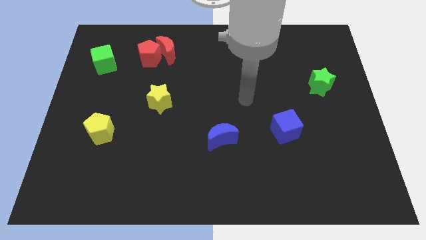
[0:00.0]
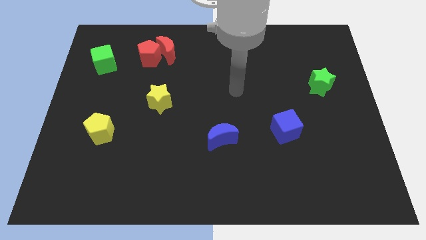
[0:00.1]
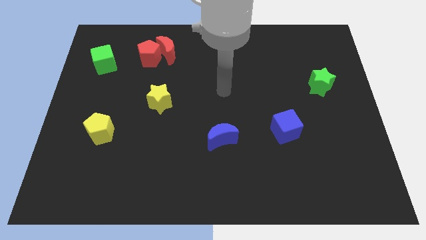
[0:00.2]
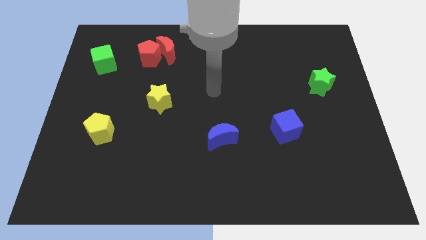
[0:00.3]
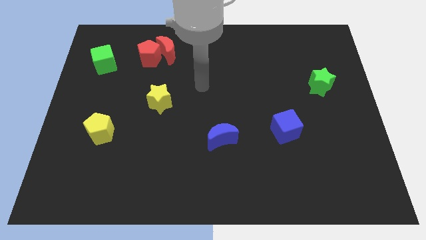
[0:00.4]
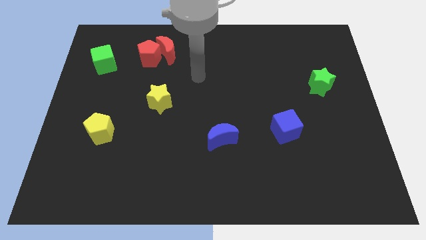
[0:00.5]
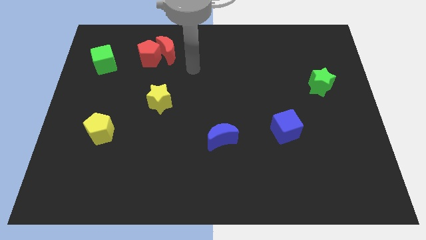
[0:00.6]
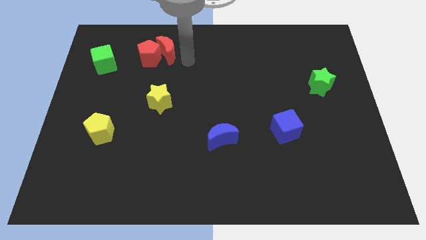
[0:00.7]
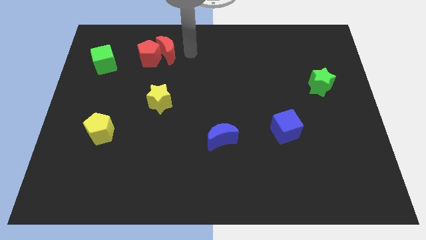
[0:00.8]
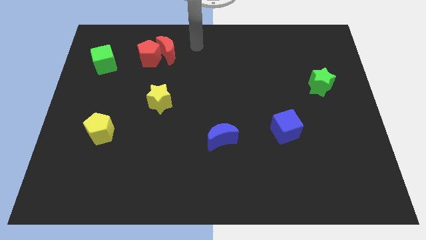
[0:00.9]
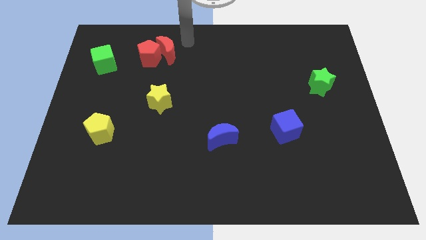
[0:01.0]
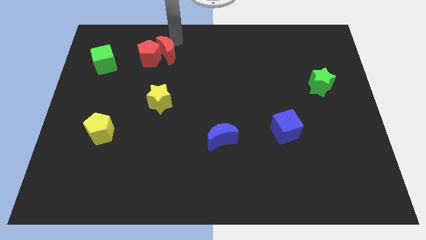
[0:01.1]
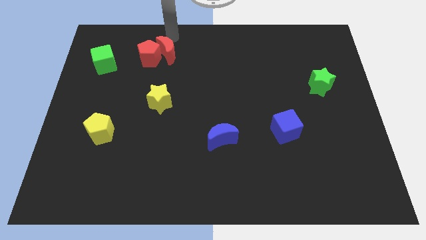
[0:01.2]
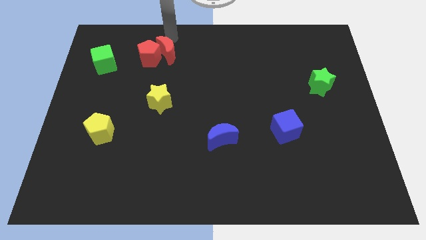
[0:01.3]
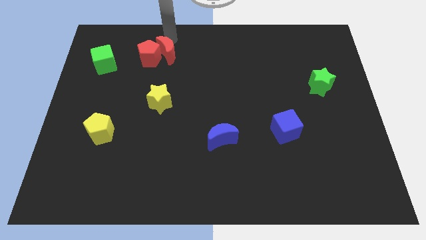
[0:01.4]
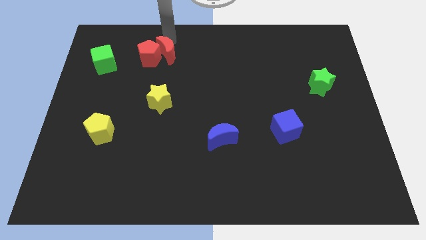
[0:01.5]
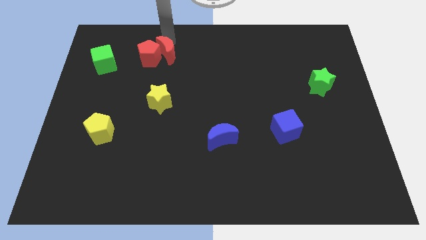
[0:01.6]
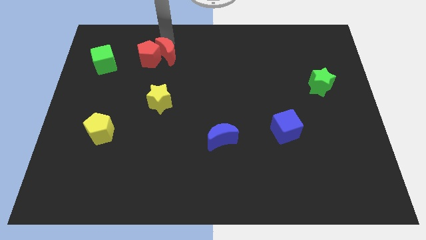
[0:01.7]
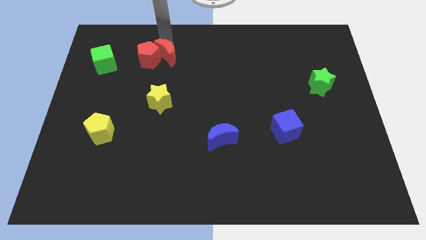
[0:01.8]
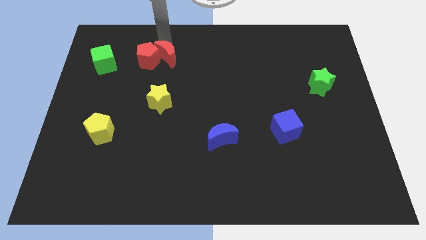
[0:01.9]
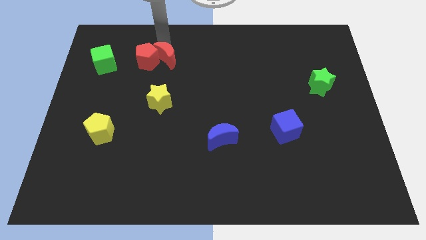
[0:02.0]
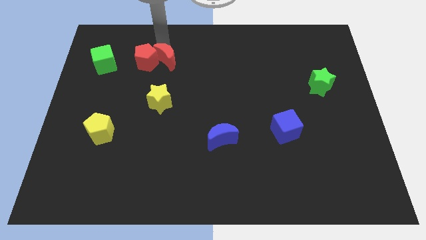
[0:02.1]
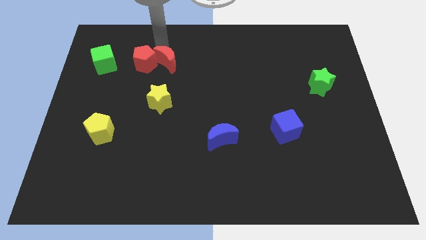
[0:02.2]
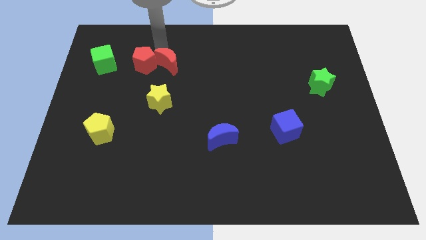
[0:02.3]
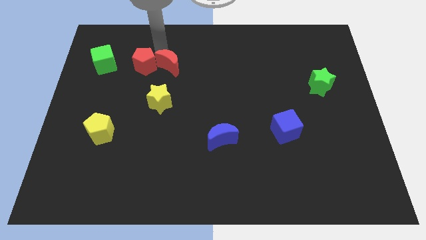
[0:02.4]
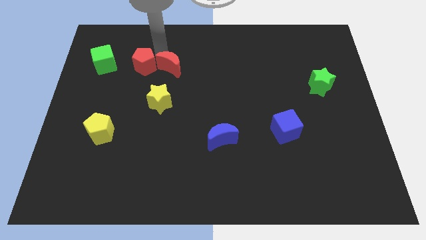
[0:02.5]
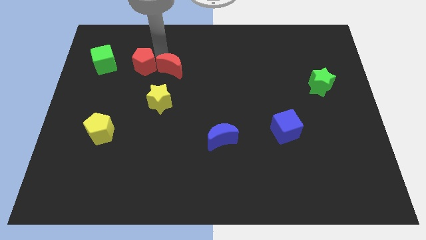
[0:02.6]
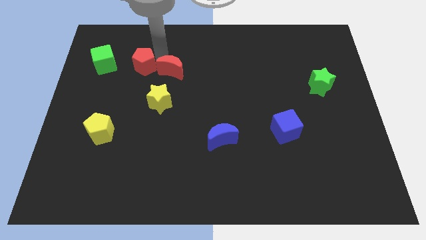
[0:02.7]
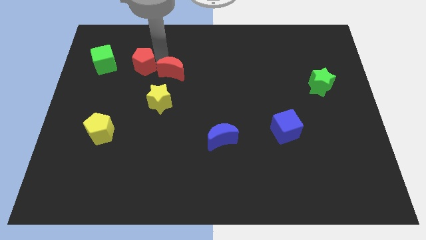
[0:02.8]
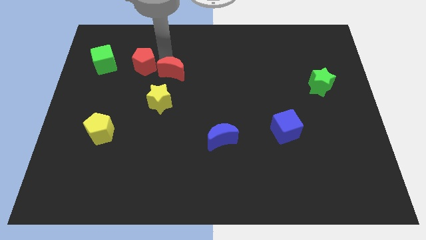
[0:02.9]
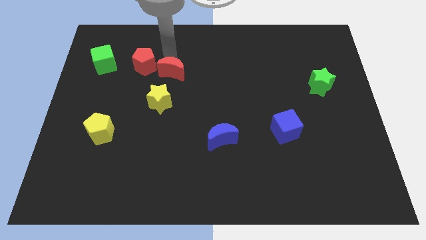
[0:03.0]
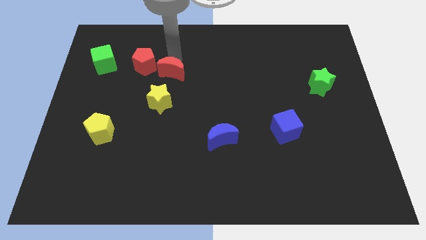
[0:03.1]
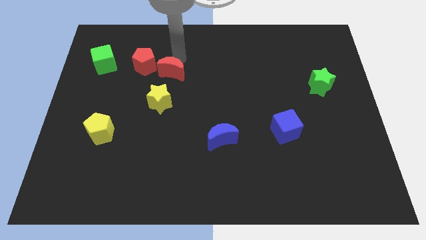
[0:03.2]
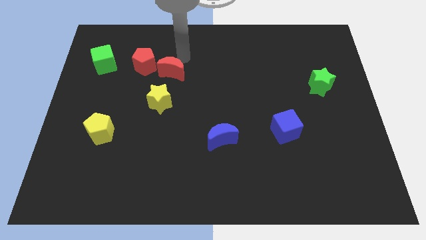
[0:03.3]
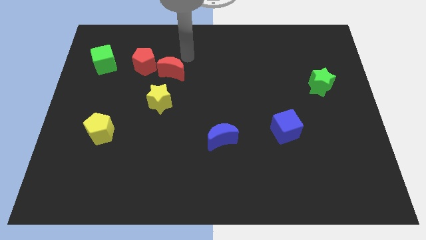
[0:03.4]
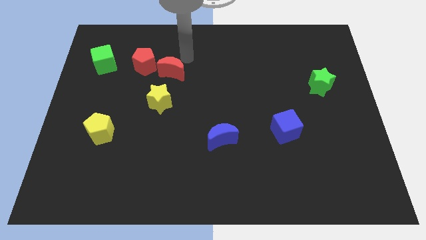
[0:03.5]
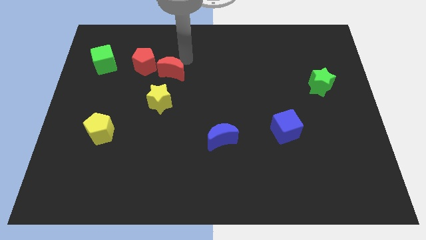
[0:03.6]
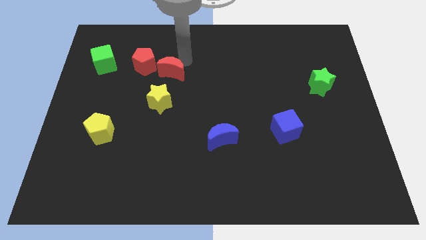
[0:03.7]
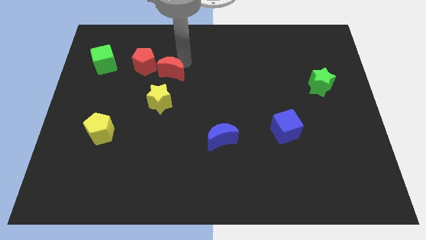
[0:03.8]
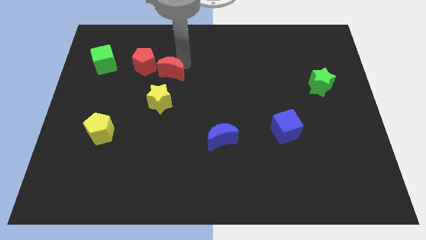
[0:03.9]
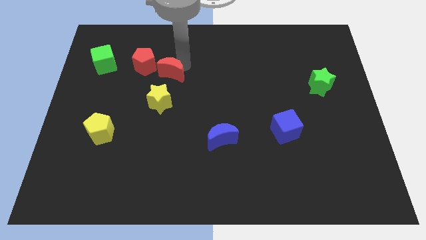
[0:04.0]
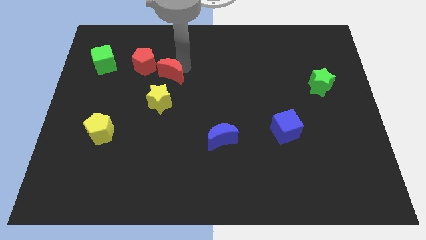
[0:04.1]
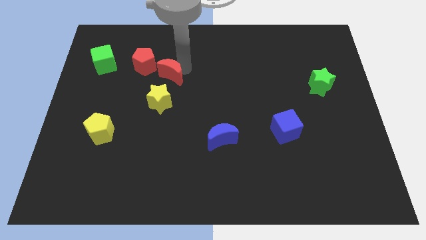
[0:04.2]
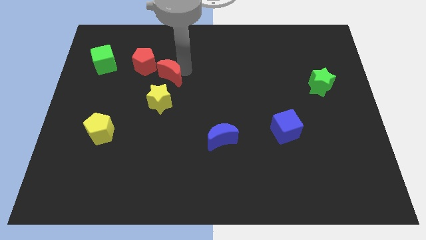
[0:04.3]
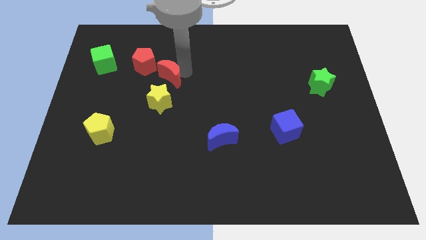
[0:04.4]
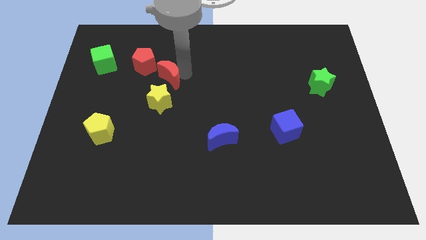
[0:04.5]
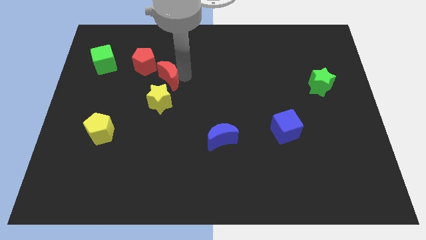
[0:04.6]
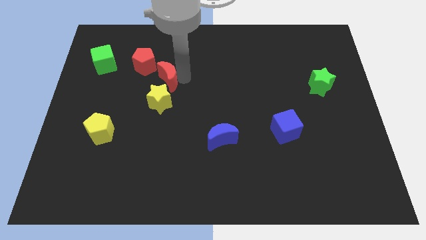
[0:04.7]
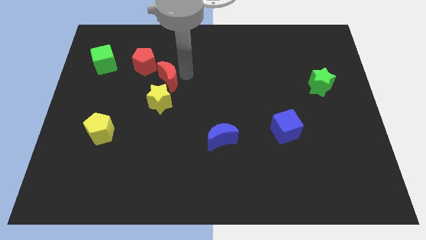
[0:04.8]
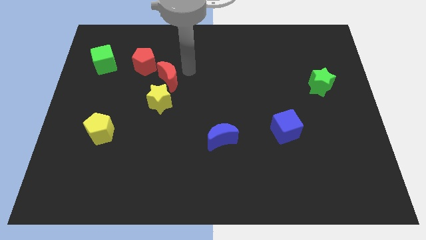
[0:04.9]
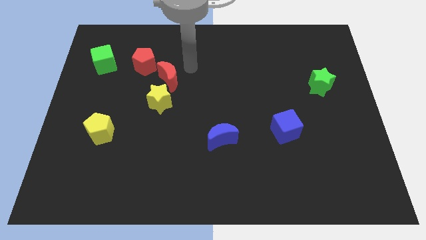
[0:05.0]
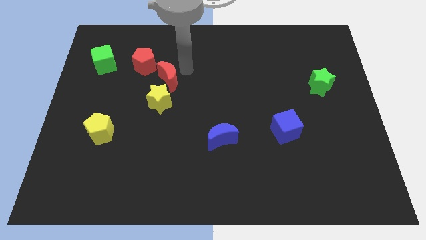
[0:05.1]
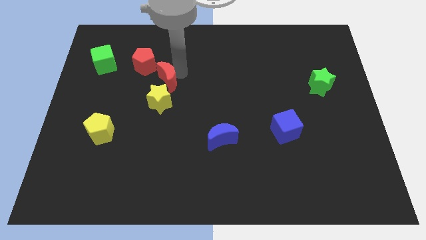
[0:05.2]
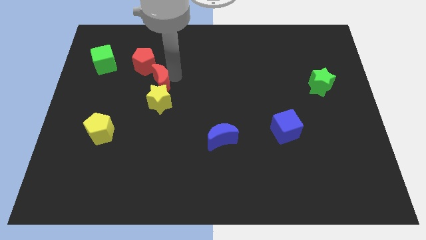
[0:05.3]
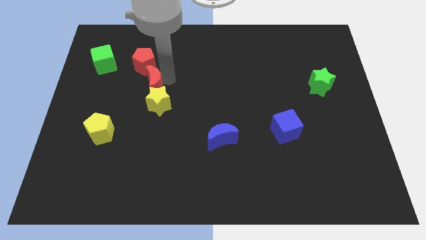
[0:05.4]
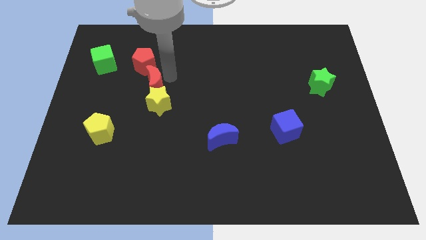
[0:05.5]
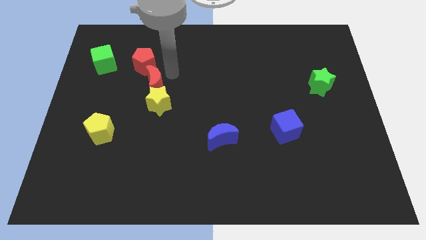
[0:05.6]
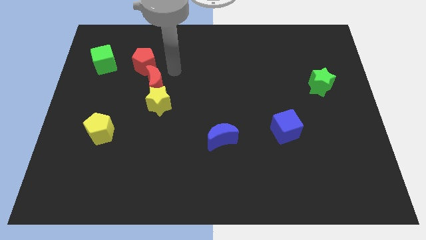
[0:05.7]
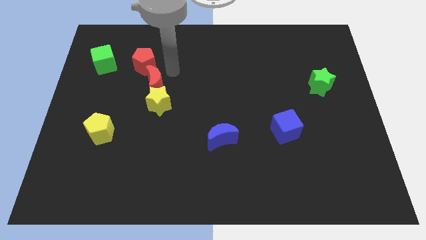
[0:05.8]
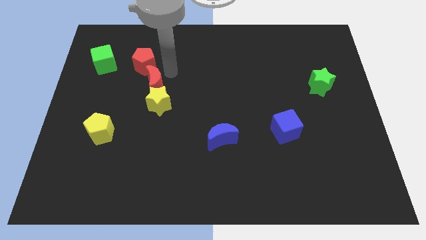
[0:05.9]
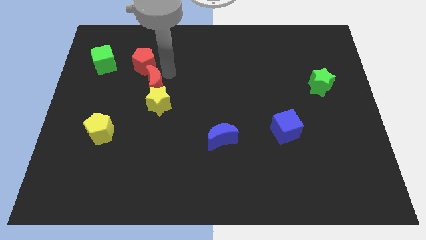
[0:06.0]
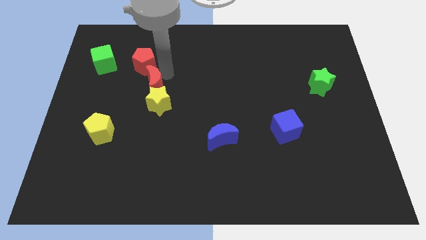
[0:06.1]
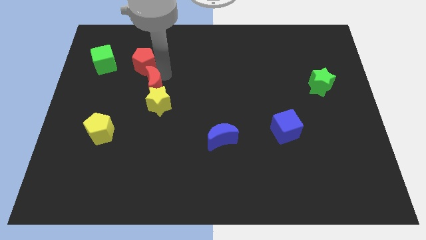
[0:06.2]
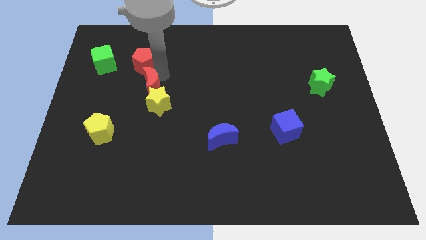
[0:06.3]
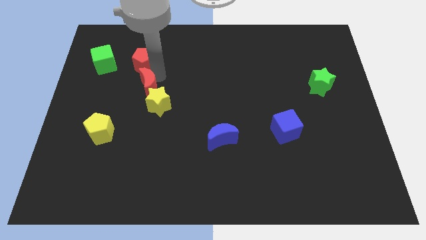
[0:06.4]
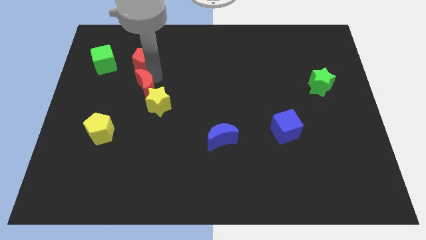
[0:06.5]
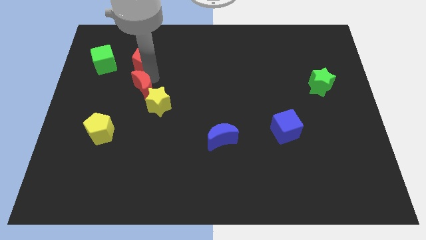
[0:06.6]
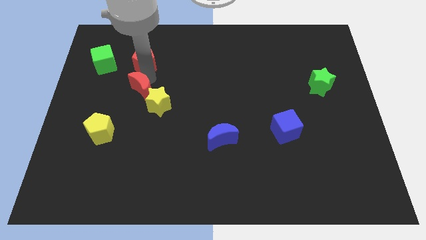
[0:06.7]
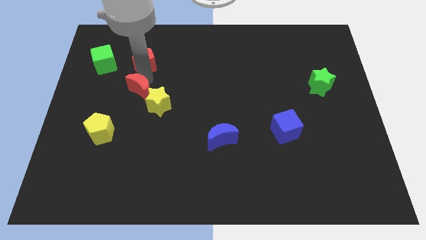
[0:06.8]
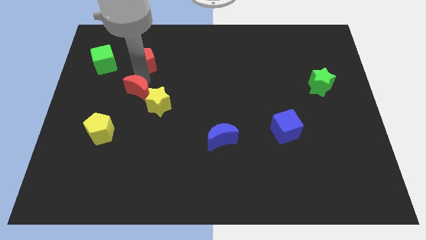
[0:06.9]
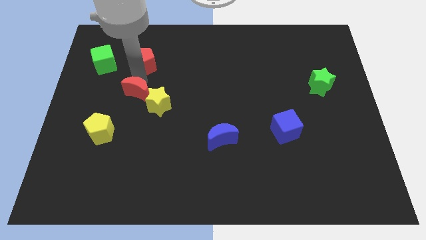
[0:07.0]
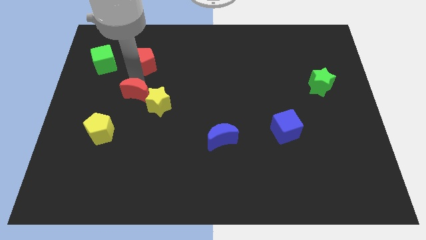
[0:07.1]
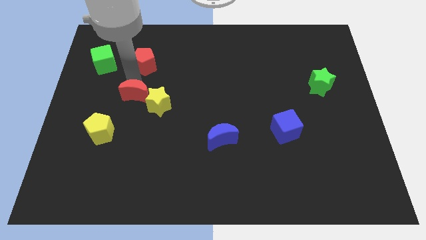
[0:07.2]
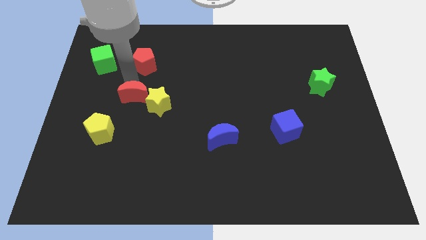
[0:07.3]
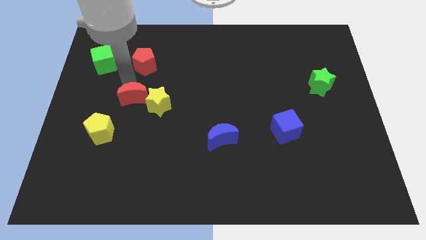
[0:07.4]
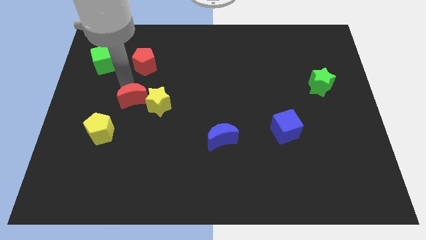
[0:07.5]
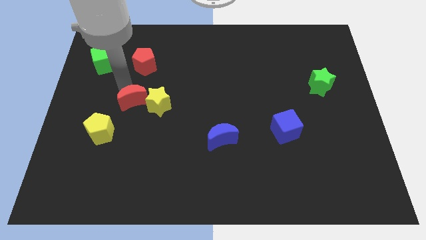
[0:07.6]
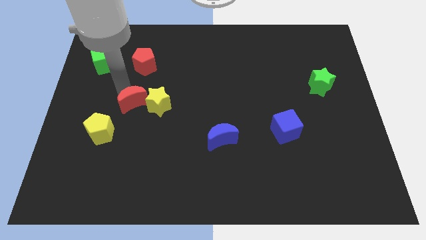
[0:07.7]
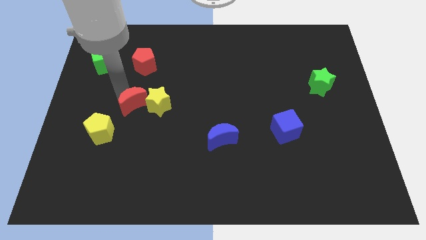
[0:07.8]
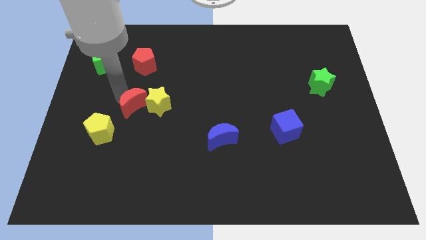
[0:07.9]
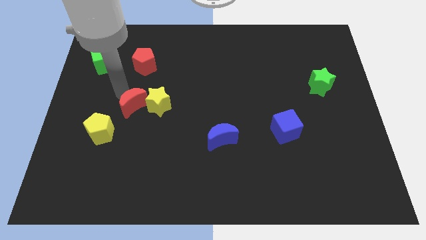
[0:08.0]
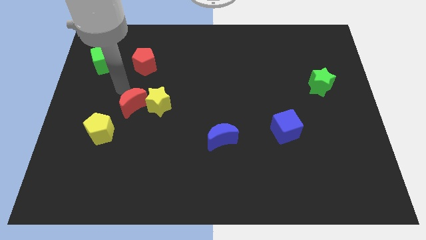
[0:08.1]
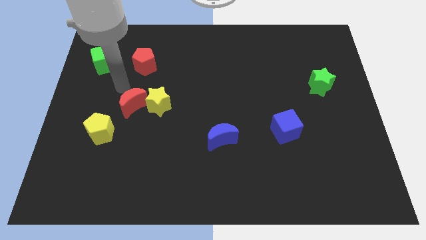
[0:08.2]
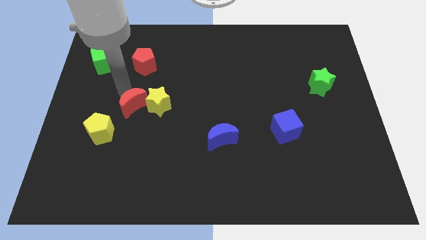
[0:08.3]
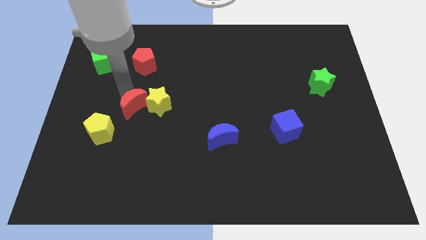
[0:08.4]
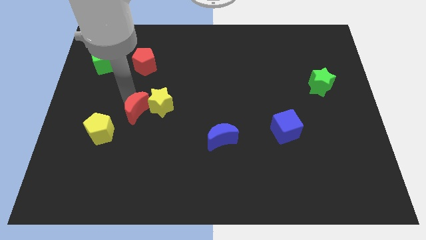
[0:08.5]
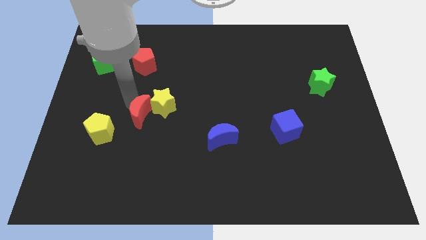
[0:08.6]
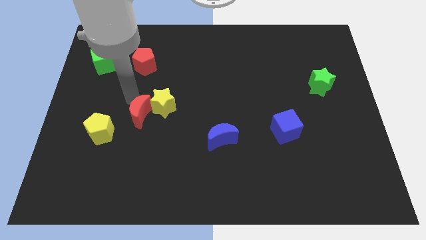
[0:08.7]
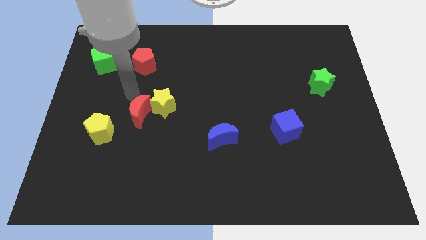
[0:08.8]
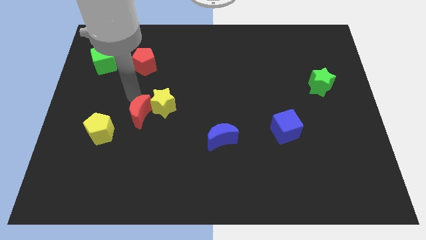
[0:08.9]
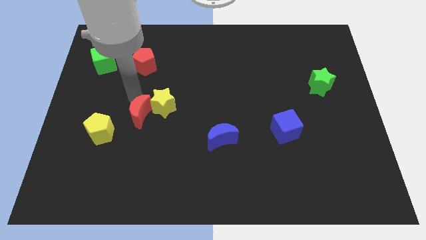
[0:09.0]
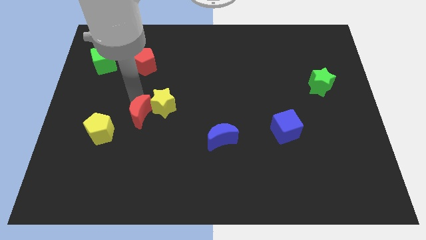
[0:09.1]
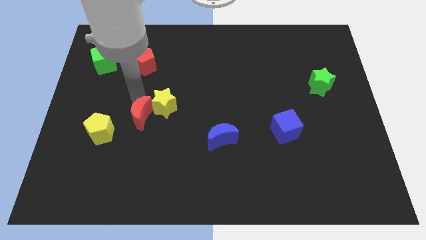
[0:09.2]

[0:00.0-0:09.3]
push the red moon to the right side of the yellow pentagon
